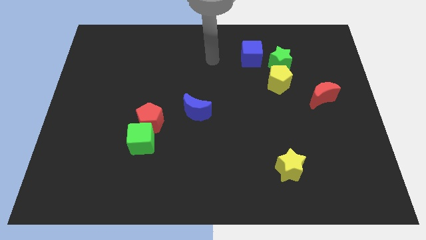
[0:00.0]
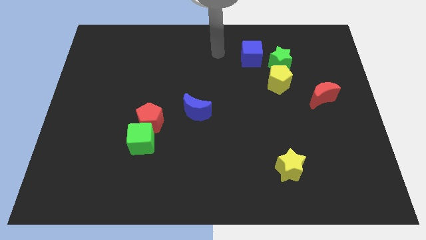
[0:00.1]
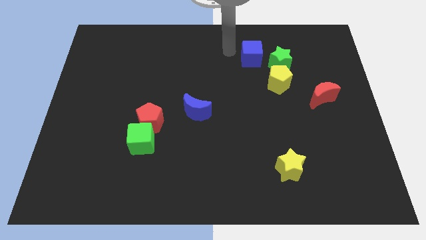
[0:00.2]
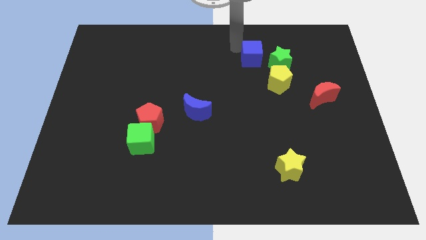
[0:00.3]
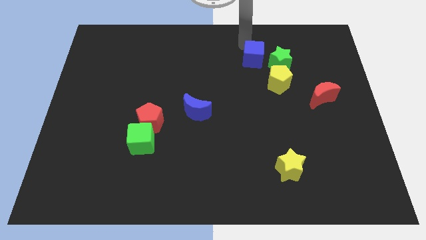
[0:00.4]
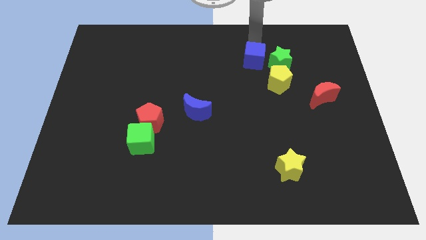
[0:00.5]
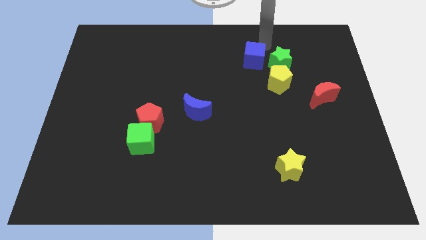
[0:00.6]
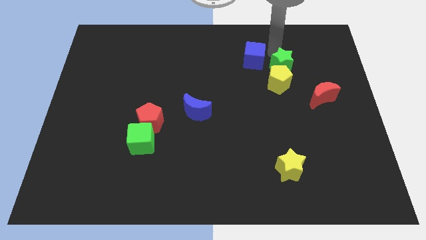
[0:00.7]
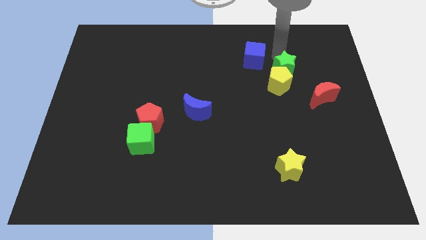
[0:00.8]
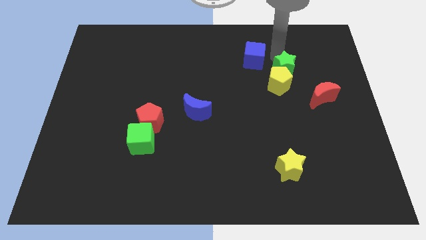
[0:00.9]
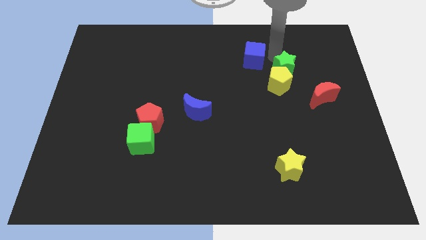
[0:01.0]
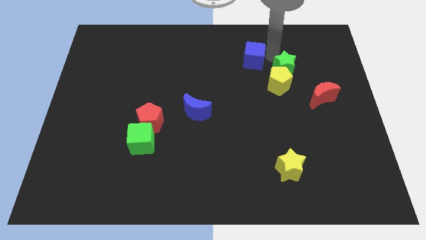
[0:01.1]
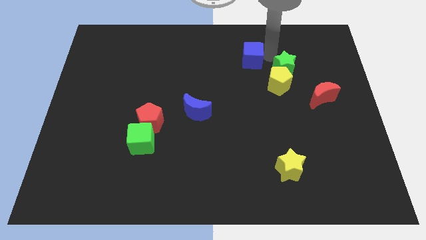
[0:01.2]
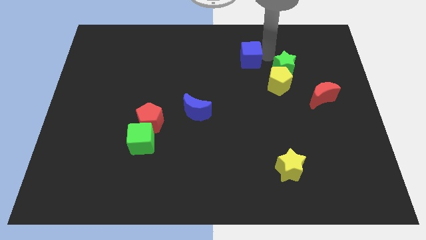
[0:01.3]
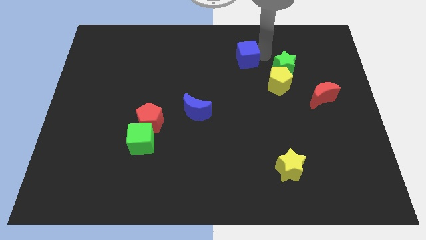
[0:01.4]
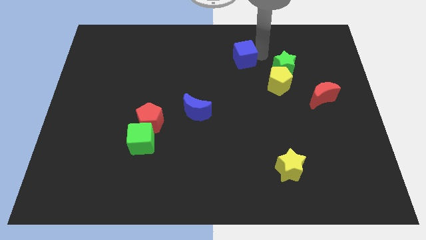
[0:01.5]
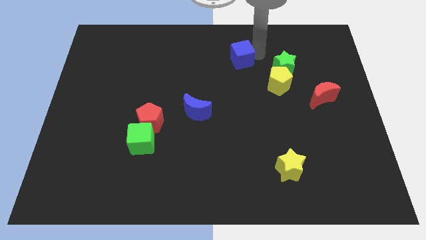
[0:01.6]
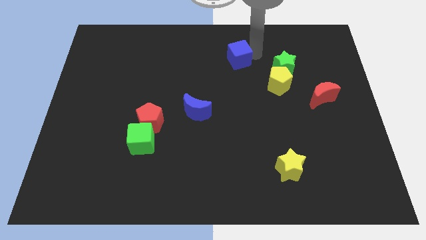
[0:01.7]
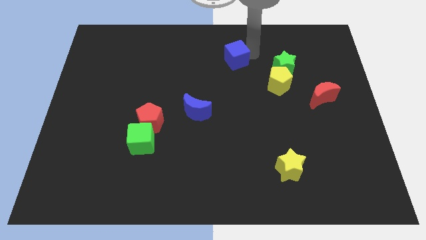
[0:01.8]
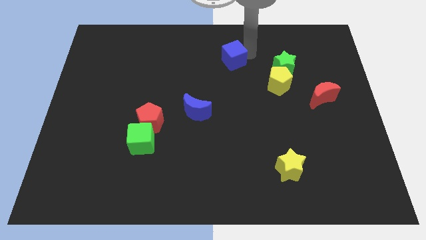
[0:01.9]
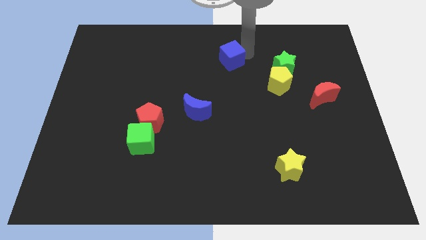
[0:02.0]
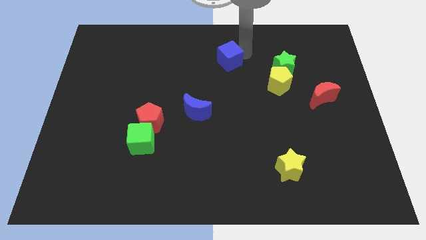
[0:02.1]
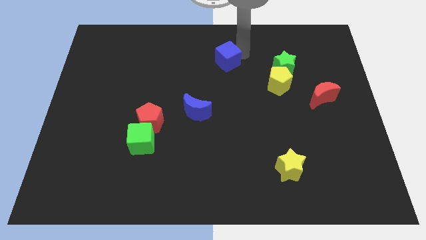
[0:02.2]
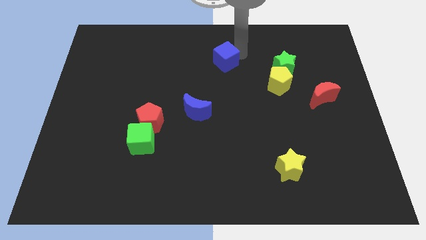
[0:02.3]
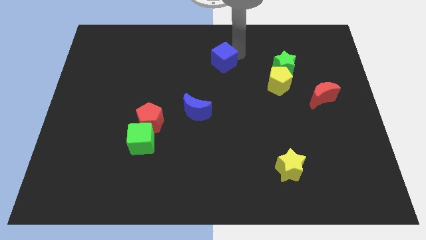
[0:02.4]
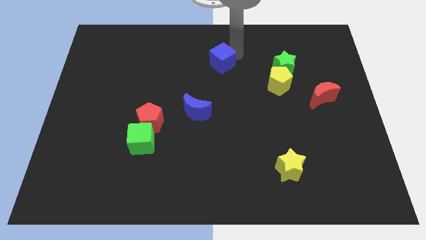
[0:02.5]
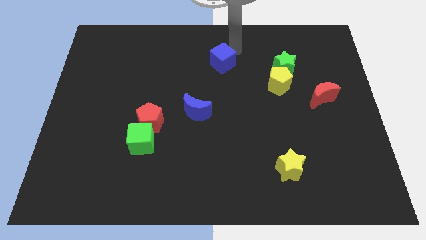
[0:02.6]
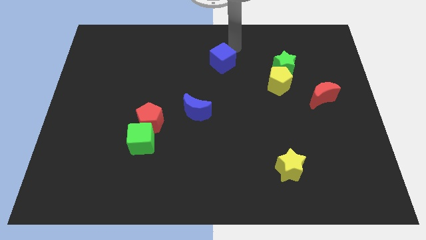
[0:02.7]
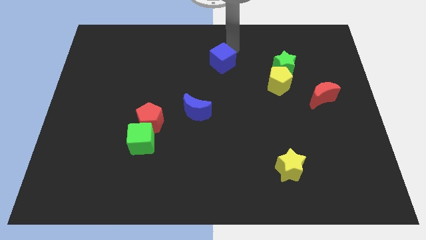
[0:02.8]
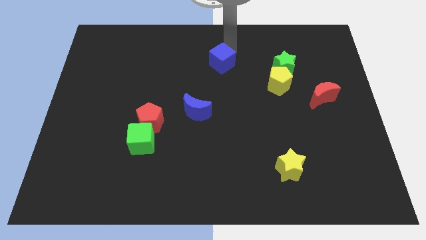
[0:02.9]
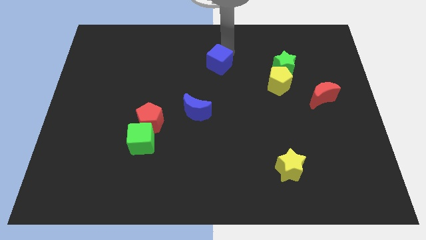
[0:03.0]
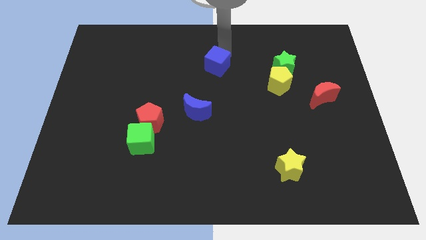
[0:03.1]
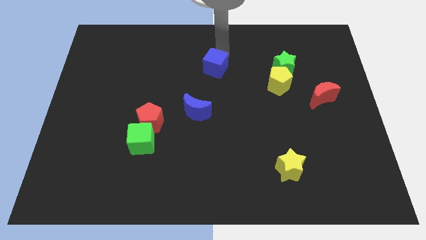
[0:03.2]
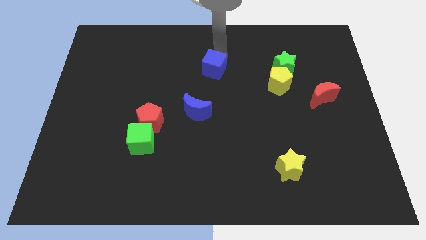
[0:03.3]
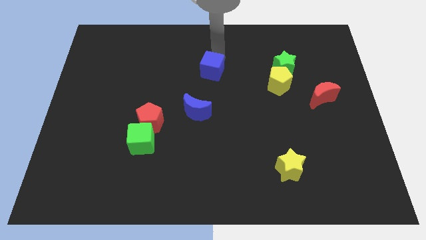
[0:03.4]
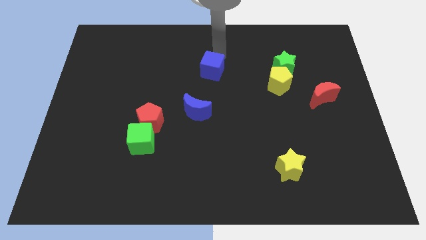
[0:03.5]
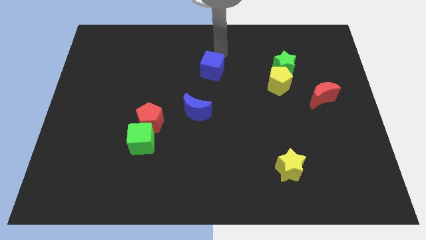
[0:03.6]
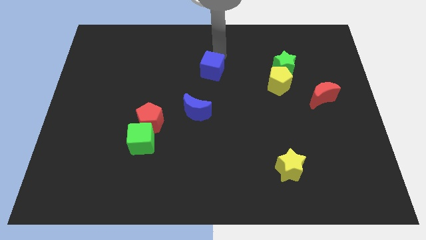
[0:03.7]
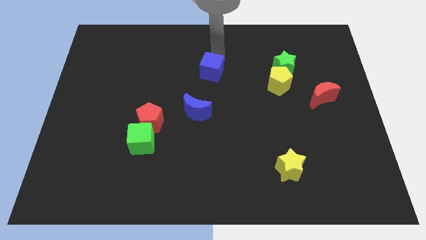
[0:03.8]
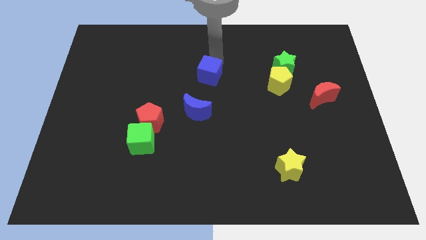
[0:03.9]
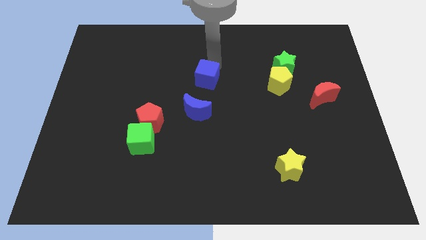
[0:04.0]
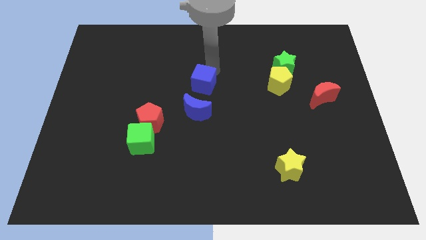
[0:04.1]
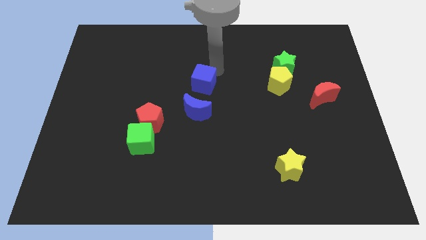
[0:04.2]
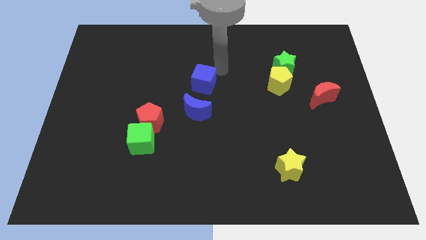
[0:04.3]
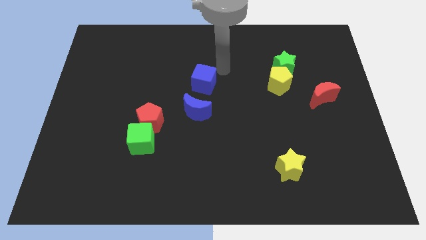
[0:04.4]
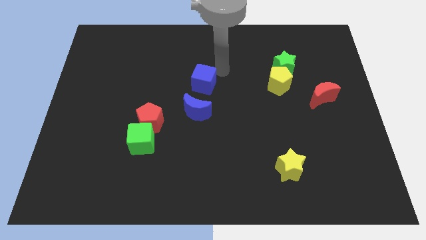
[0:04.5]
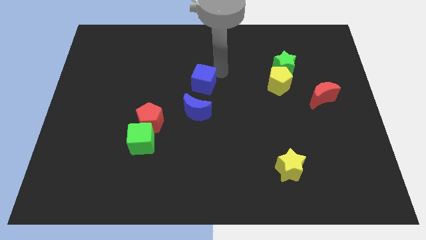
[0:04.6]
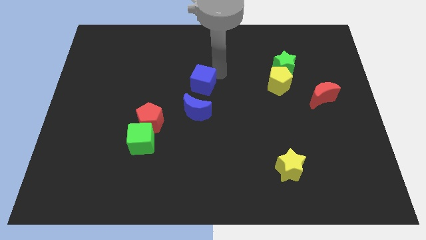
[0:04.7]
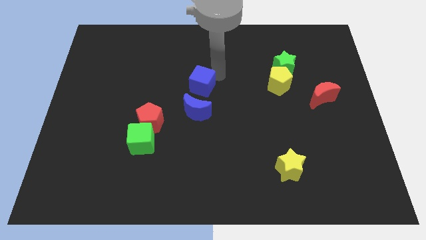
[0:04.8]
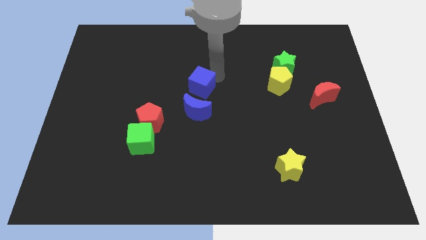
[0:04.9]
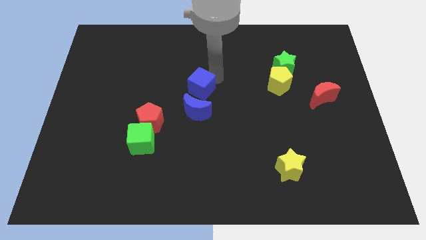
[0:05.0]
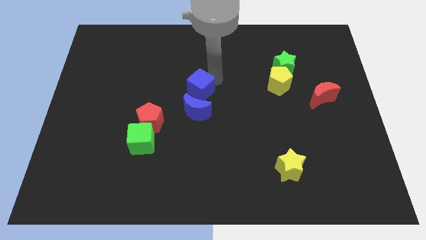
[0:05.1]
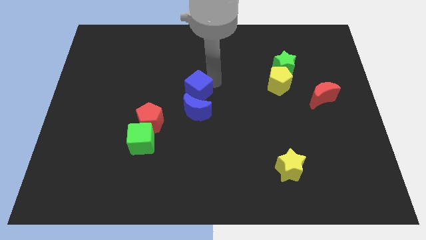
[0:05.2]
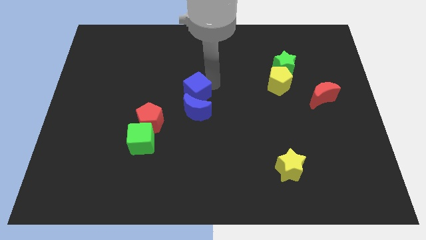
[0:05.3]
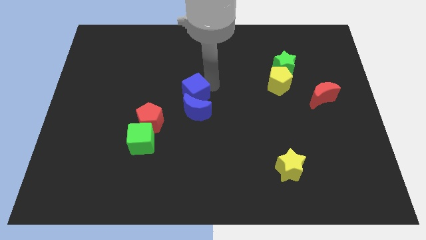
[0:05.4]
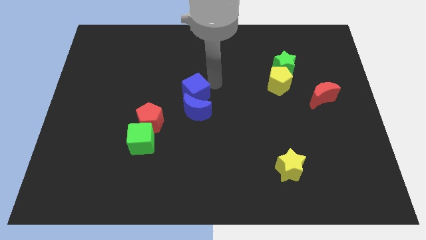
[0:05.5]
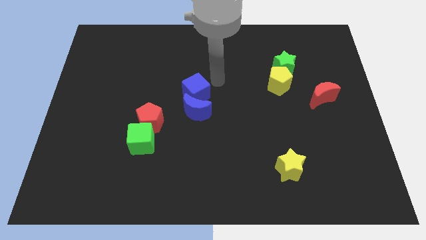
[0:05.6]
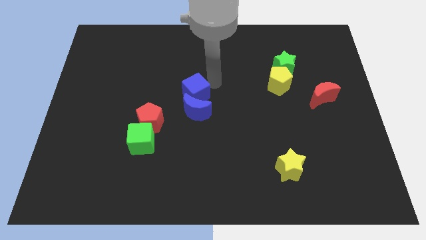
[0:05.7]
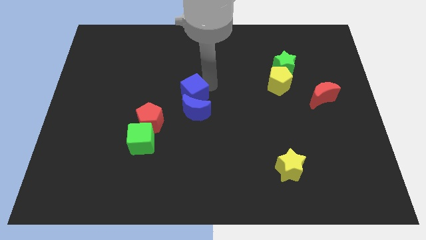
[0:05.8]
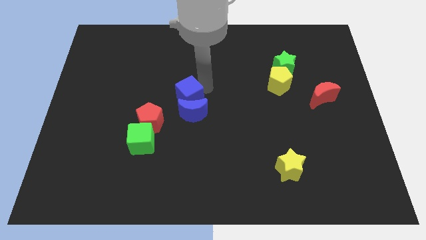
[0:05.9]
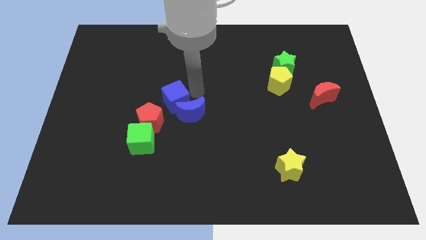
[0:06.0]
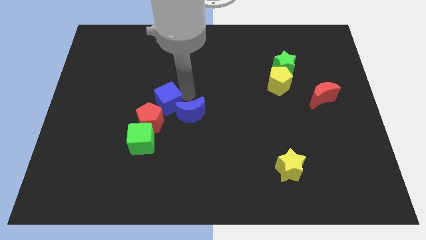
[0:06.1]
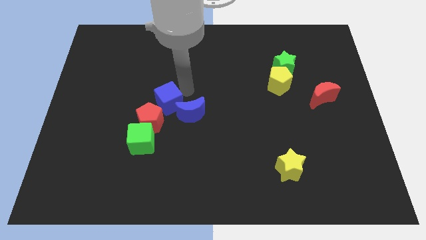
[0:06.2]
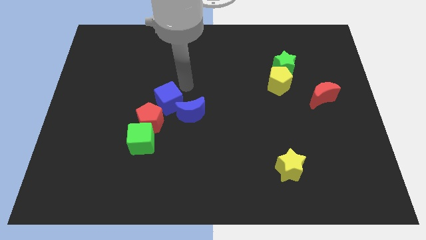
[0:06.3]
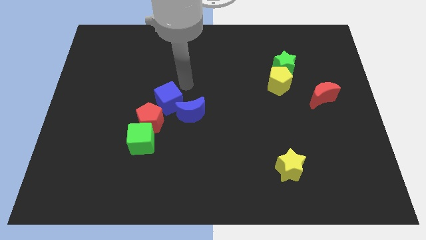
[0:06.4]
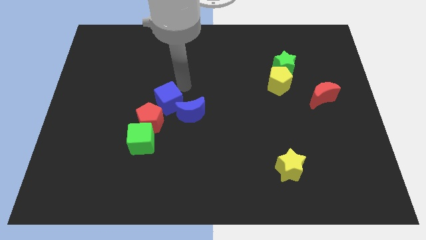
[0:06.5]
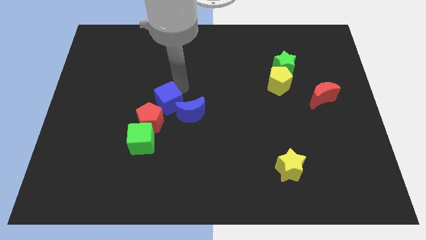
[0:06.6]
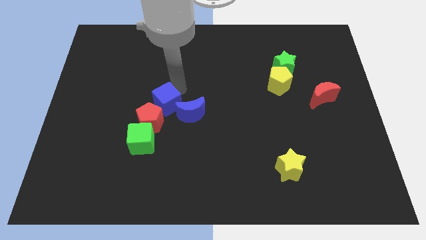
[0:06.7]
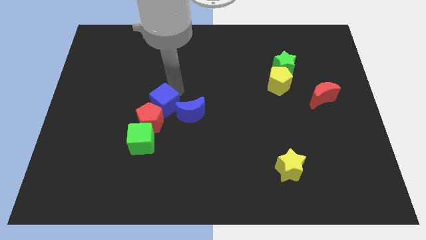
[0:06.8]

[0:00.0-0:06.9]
push the blue cube to the red pentagon

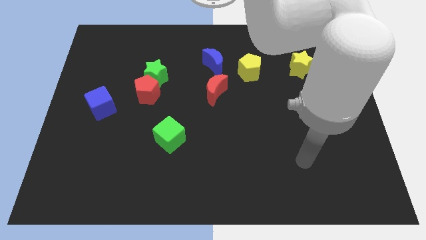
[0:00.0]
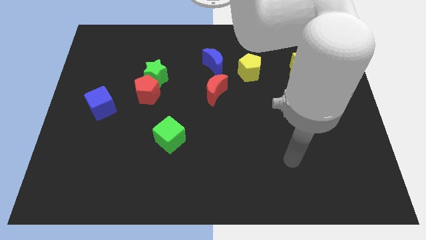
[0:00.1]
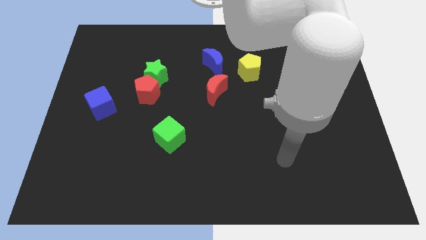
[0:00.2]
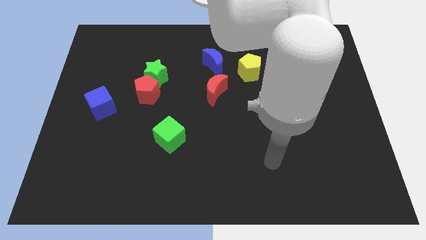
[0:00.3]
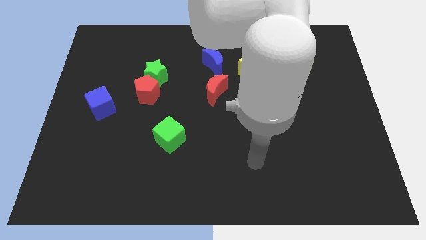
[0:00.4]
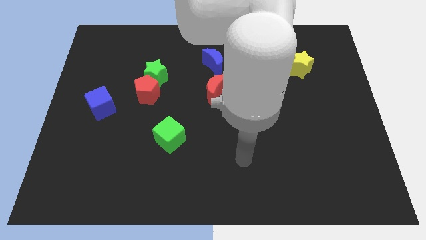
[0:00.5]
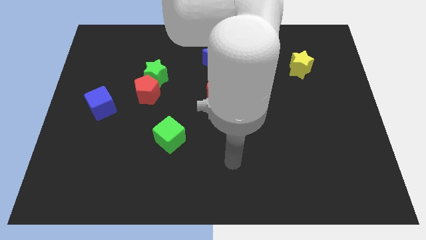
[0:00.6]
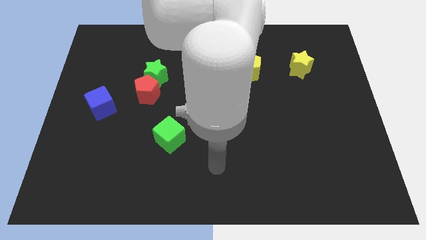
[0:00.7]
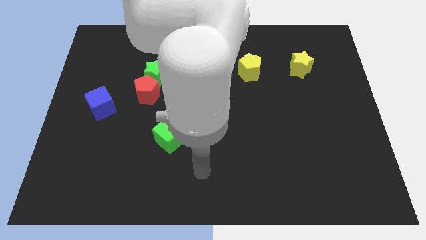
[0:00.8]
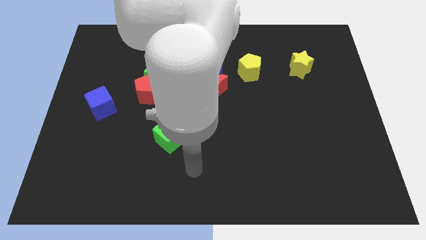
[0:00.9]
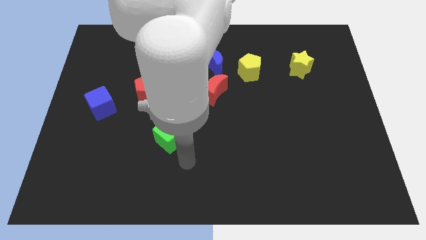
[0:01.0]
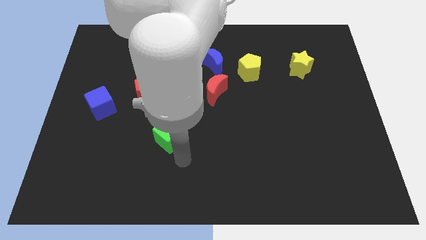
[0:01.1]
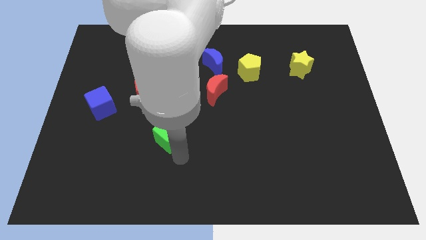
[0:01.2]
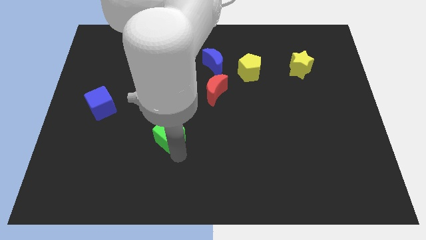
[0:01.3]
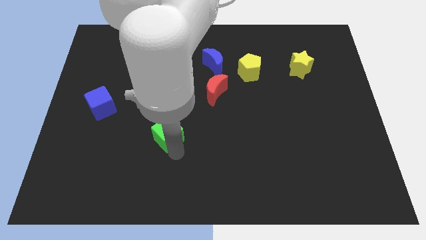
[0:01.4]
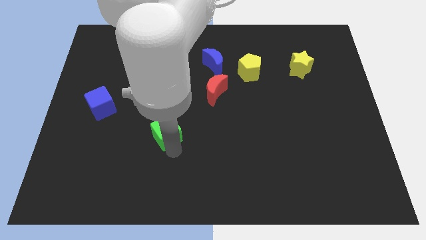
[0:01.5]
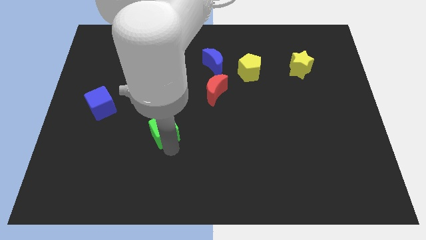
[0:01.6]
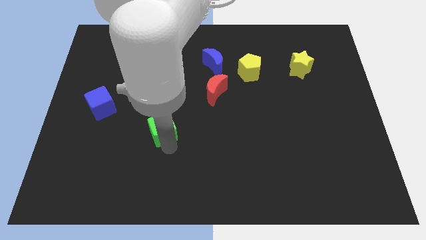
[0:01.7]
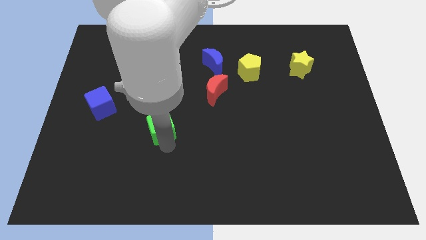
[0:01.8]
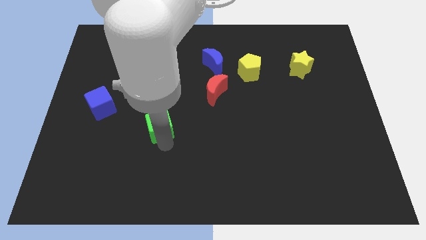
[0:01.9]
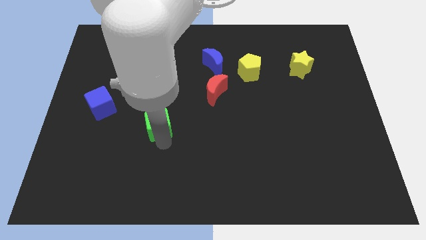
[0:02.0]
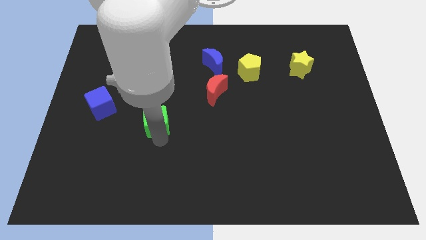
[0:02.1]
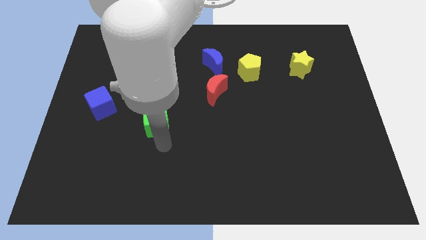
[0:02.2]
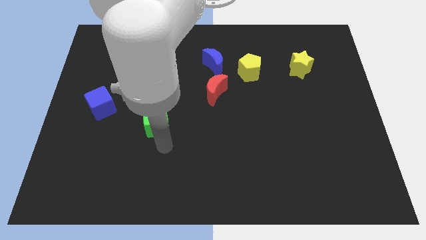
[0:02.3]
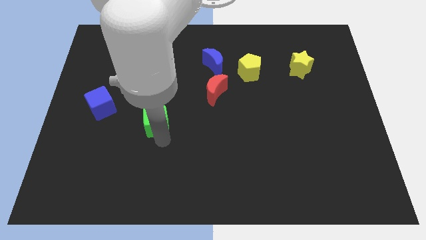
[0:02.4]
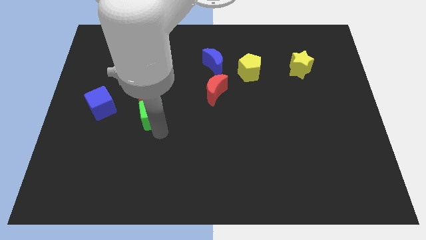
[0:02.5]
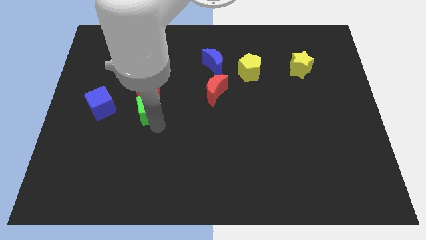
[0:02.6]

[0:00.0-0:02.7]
slide the green cube towards the red pentagon
